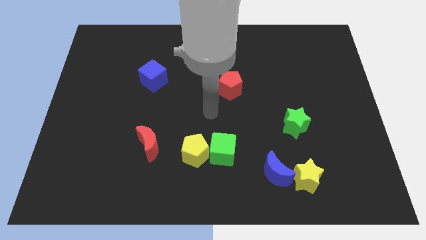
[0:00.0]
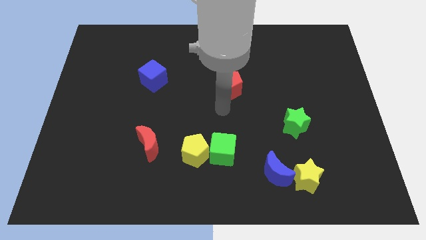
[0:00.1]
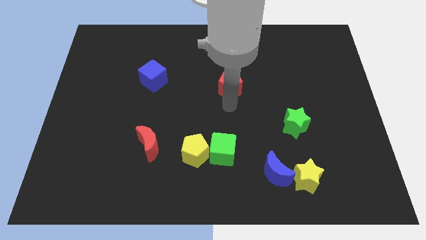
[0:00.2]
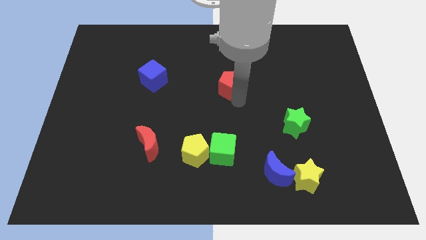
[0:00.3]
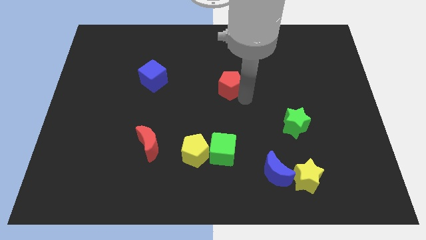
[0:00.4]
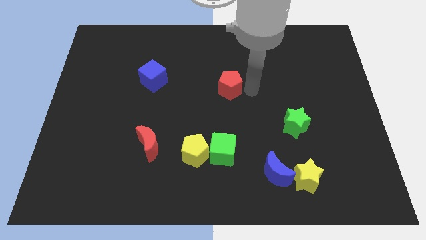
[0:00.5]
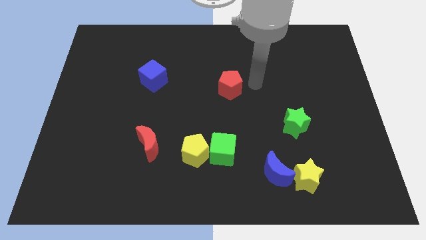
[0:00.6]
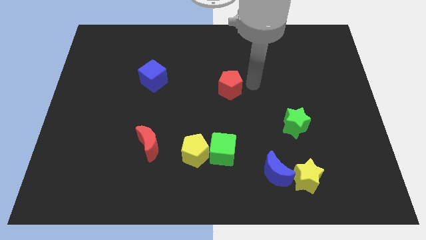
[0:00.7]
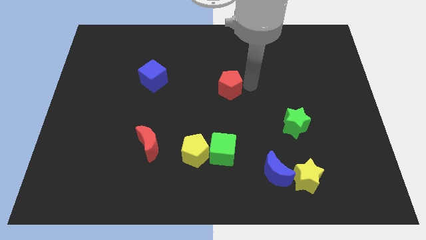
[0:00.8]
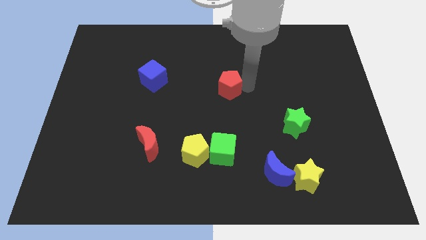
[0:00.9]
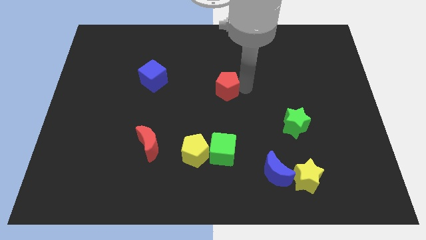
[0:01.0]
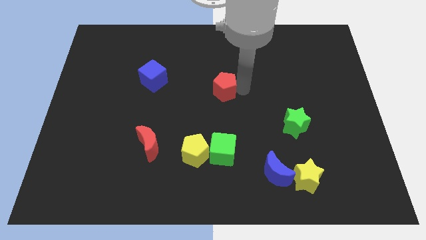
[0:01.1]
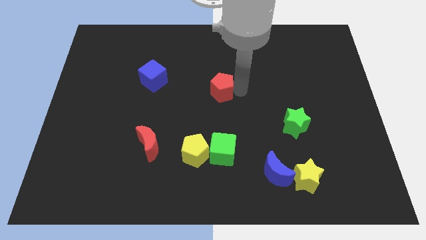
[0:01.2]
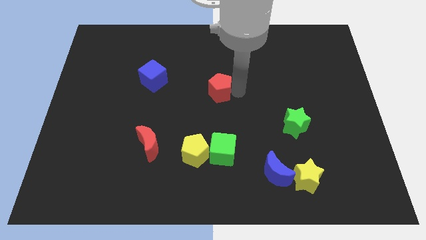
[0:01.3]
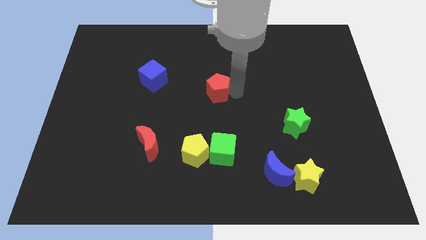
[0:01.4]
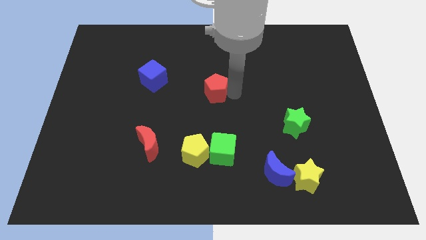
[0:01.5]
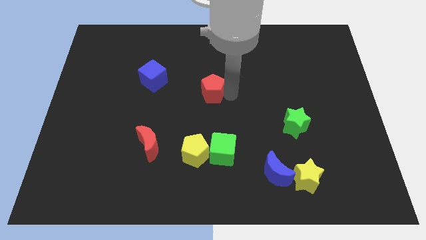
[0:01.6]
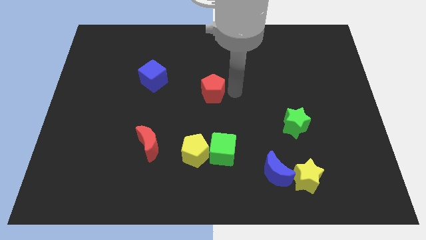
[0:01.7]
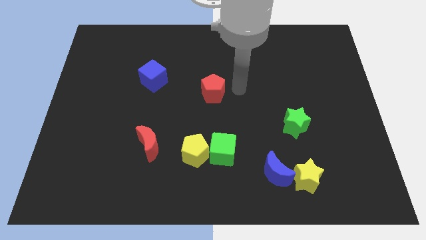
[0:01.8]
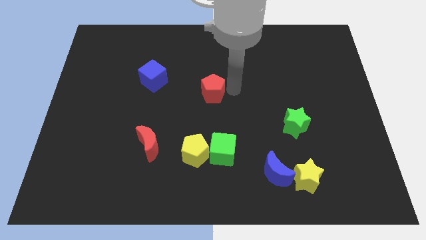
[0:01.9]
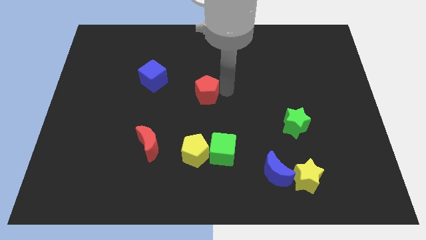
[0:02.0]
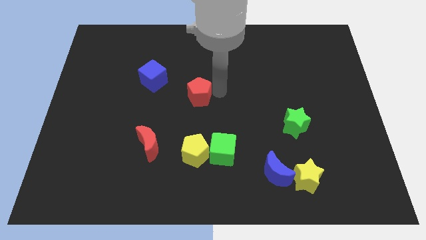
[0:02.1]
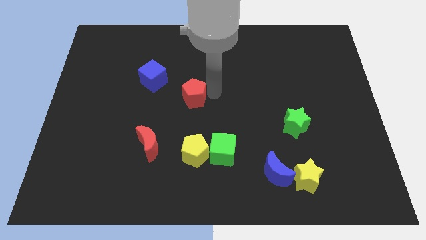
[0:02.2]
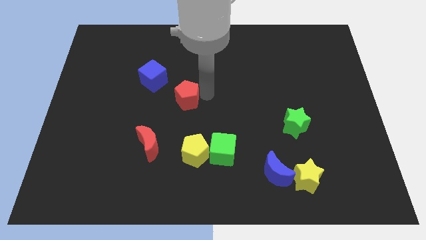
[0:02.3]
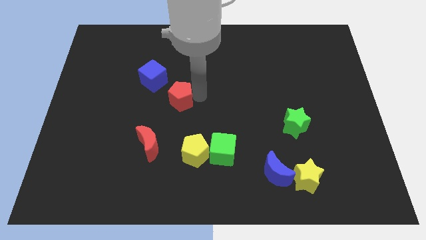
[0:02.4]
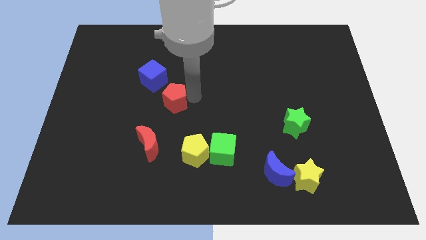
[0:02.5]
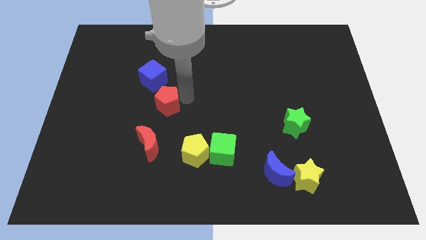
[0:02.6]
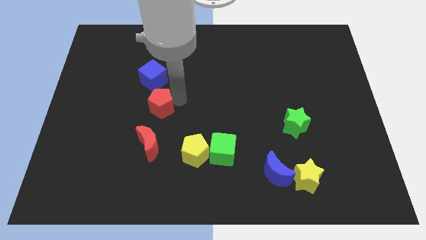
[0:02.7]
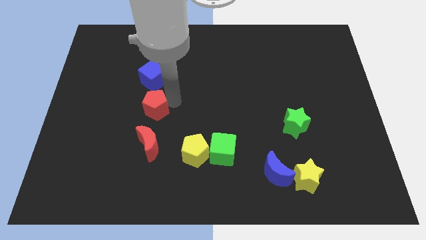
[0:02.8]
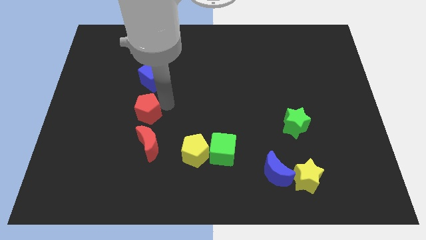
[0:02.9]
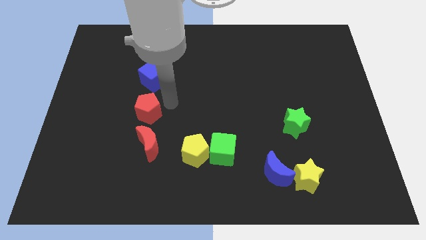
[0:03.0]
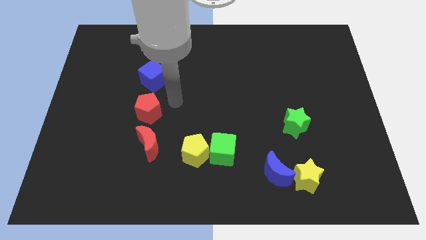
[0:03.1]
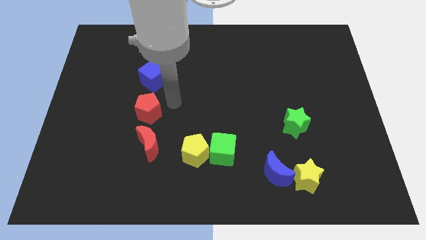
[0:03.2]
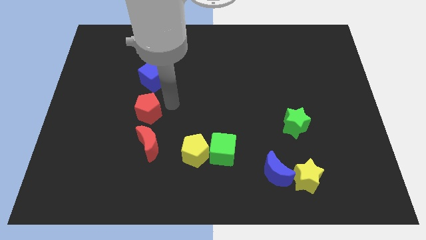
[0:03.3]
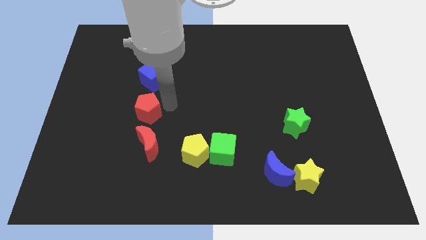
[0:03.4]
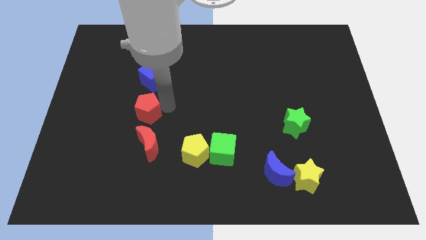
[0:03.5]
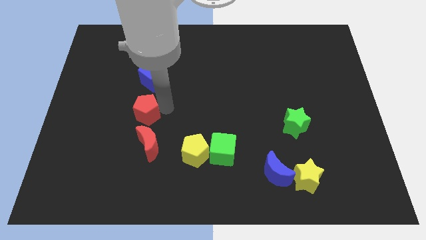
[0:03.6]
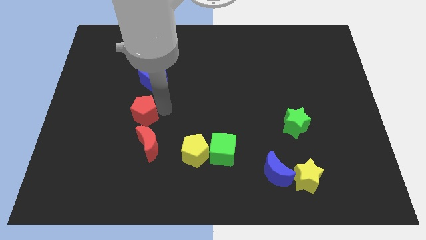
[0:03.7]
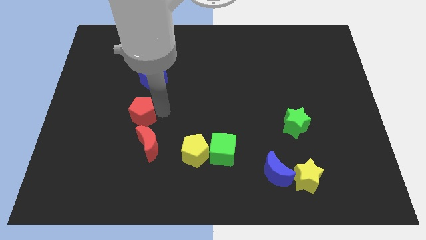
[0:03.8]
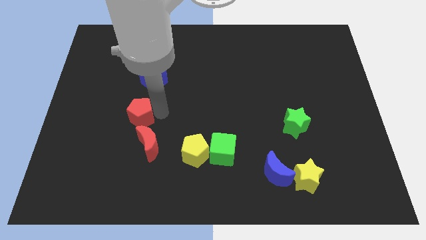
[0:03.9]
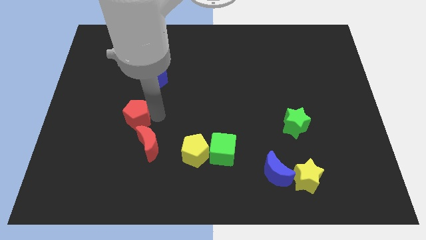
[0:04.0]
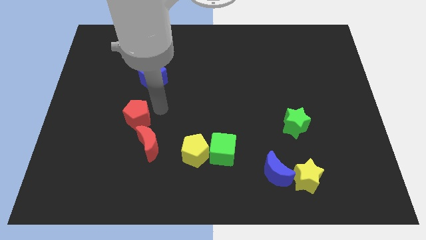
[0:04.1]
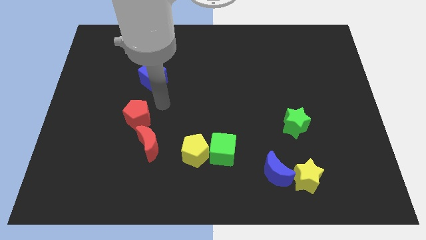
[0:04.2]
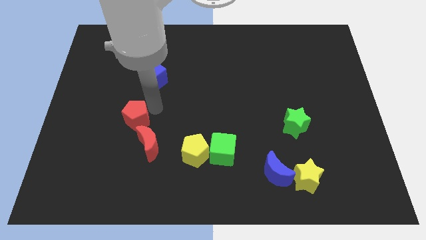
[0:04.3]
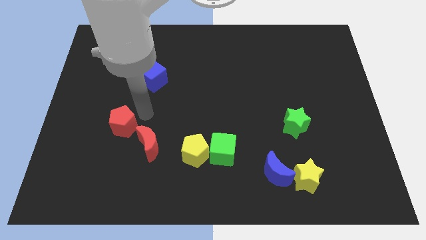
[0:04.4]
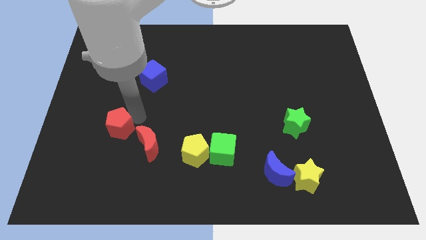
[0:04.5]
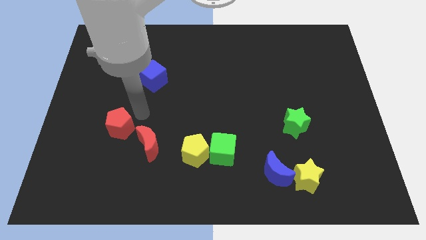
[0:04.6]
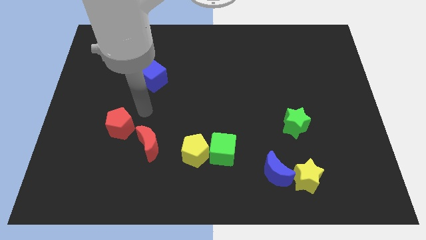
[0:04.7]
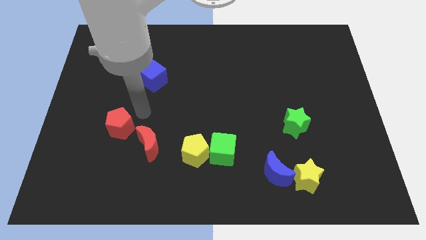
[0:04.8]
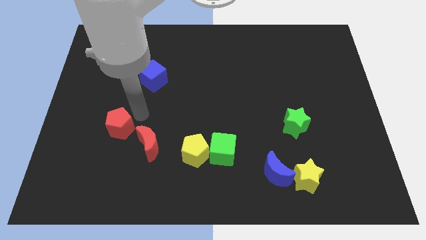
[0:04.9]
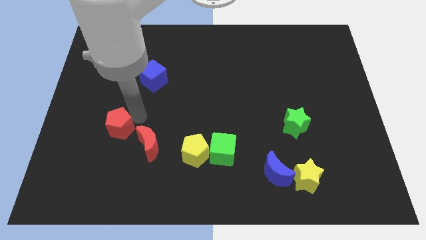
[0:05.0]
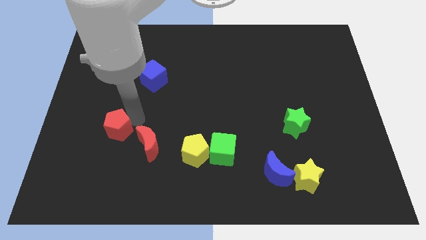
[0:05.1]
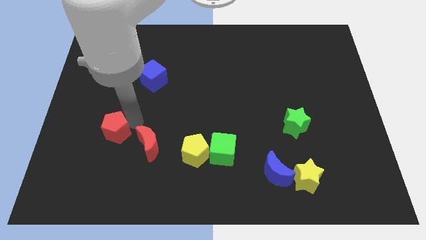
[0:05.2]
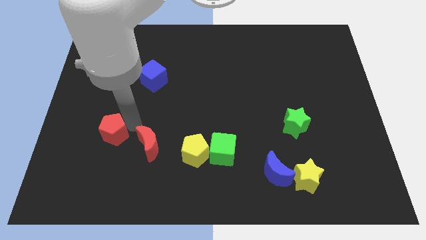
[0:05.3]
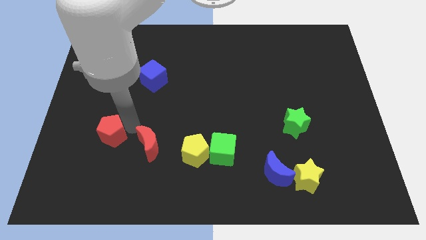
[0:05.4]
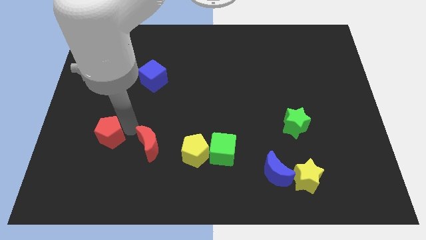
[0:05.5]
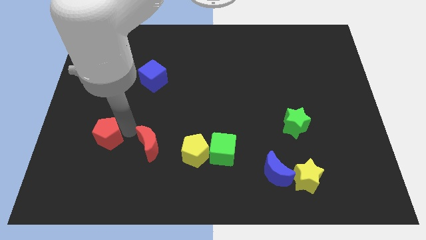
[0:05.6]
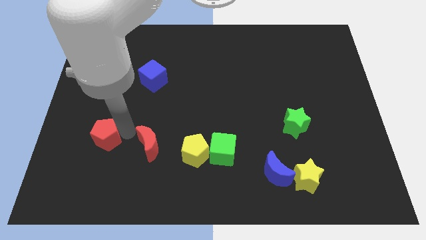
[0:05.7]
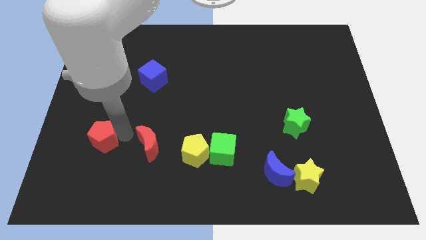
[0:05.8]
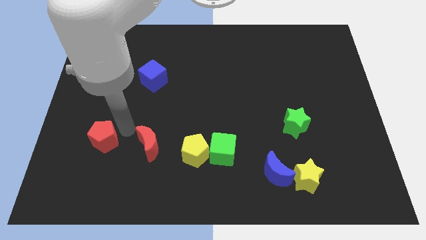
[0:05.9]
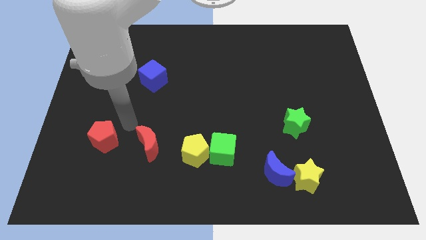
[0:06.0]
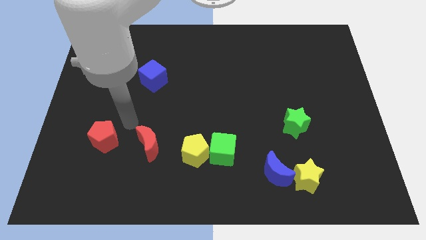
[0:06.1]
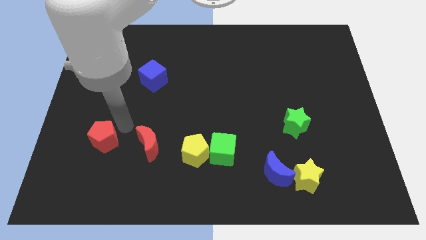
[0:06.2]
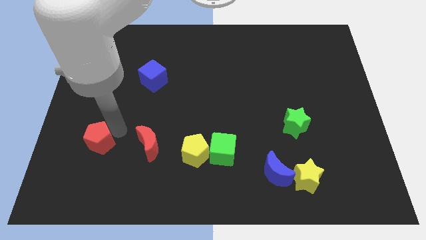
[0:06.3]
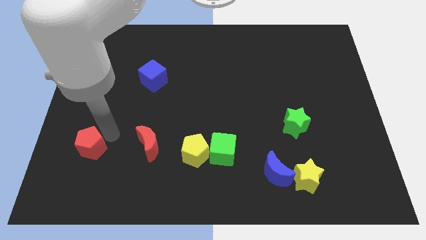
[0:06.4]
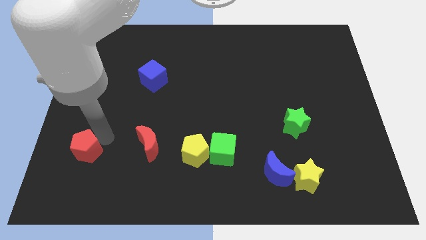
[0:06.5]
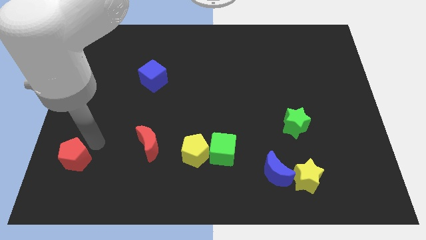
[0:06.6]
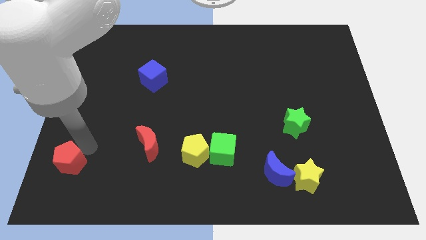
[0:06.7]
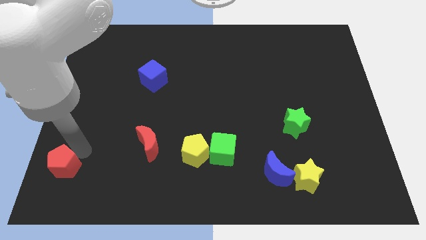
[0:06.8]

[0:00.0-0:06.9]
put the red pentagon to the lower left corner
